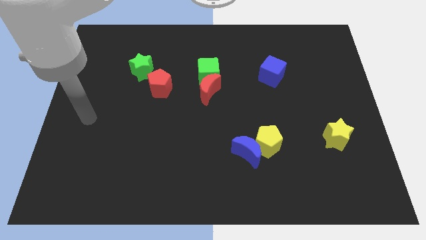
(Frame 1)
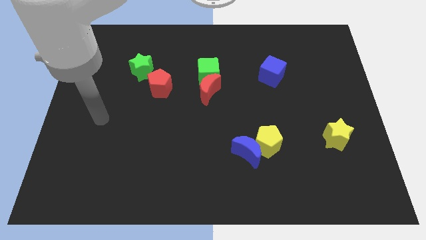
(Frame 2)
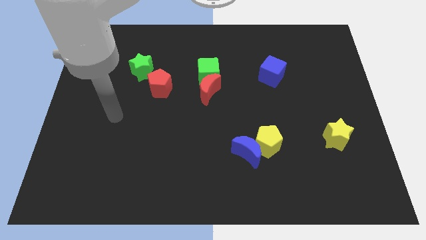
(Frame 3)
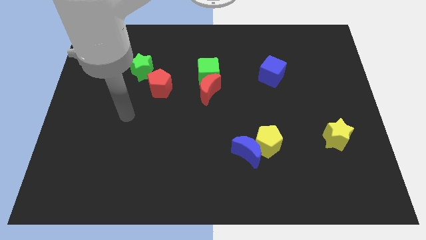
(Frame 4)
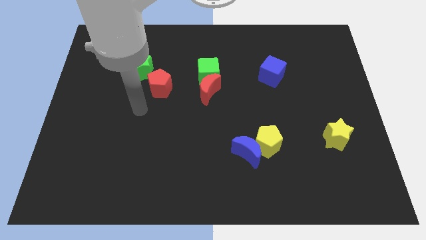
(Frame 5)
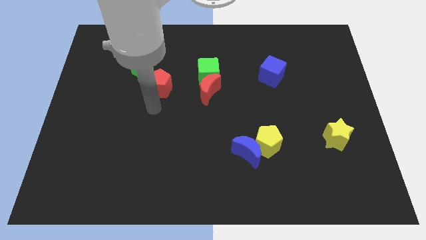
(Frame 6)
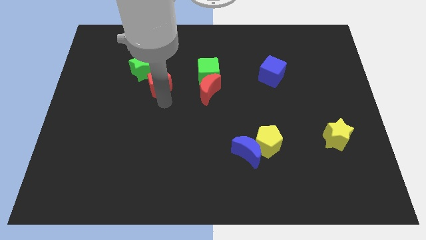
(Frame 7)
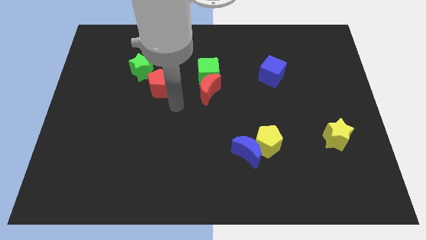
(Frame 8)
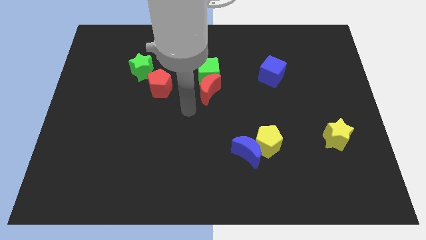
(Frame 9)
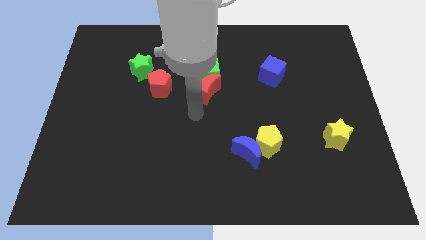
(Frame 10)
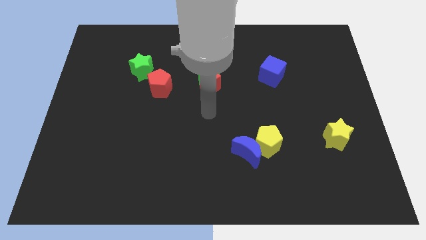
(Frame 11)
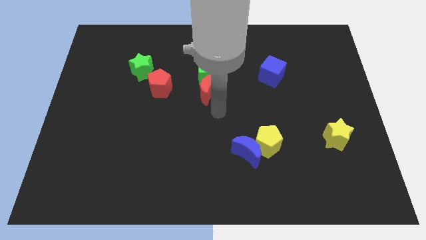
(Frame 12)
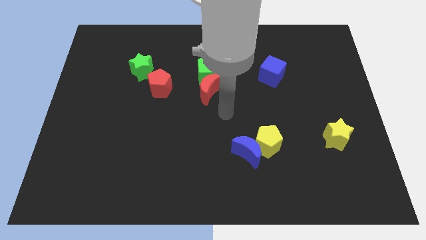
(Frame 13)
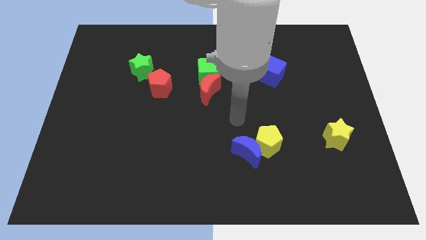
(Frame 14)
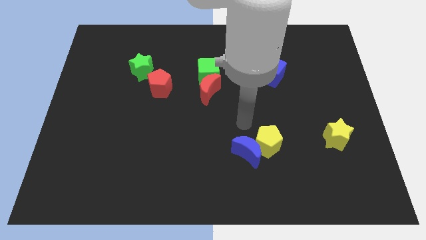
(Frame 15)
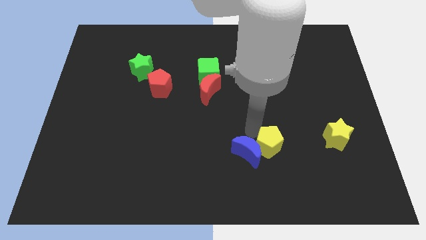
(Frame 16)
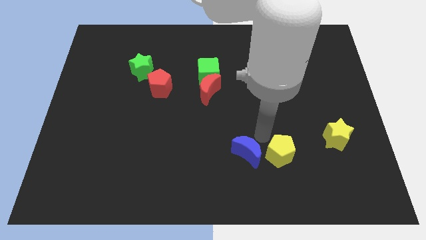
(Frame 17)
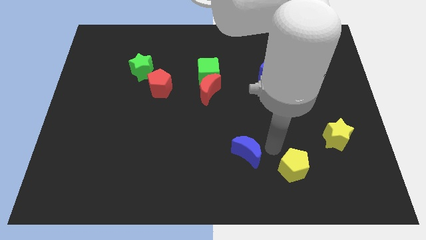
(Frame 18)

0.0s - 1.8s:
move the blue moon away from the yellow pentagon

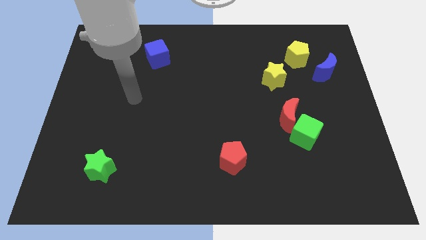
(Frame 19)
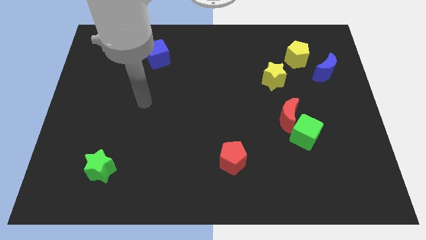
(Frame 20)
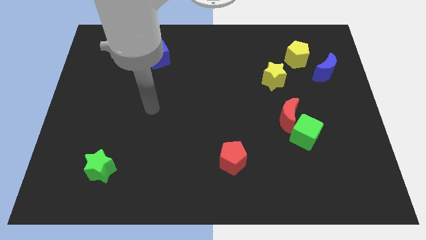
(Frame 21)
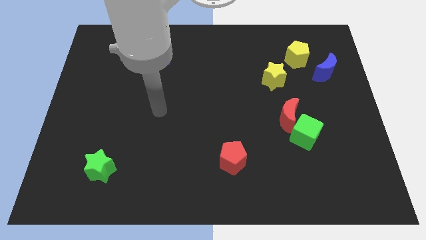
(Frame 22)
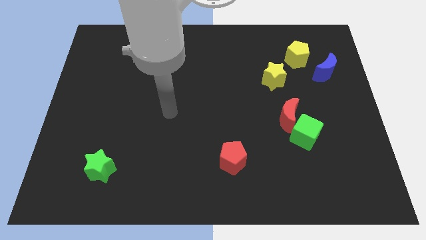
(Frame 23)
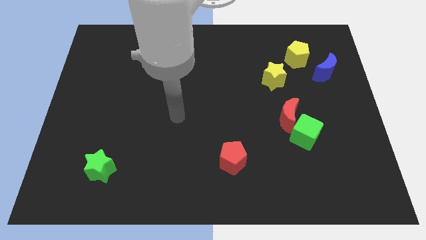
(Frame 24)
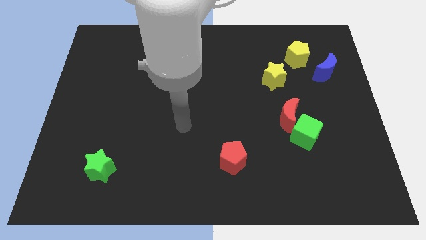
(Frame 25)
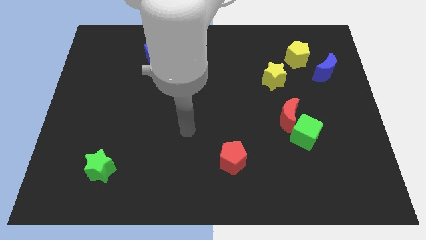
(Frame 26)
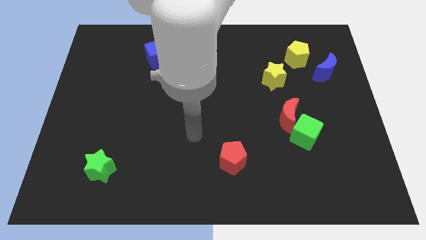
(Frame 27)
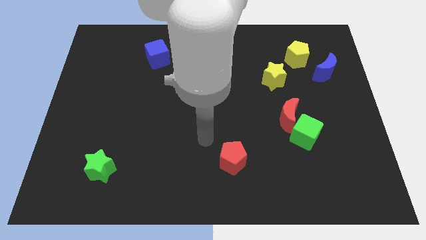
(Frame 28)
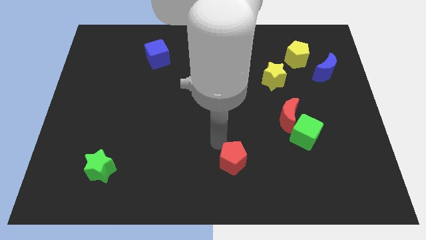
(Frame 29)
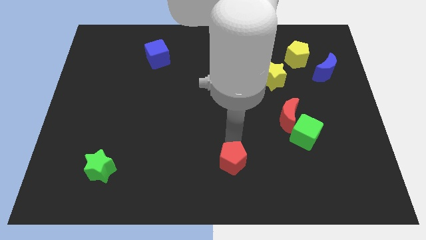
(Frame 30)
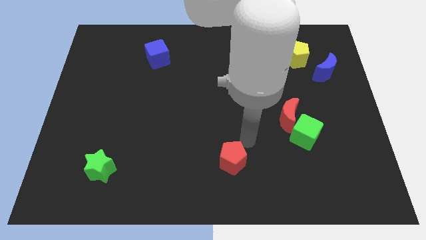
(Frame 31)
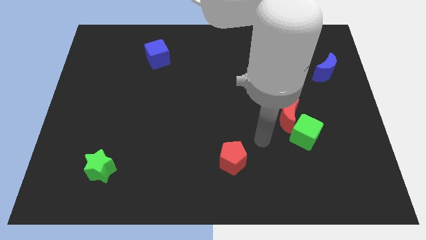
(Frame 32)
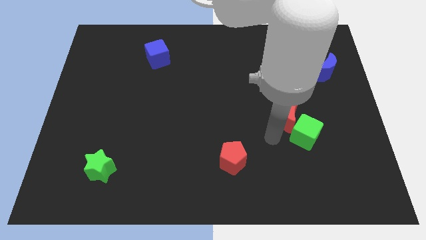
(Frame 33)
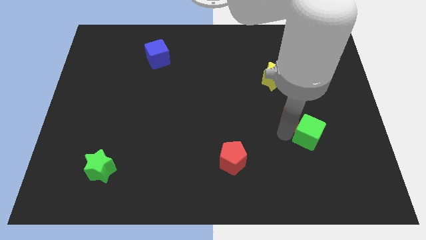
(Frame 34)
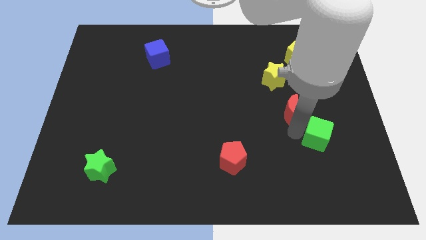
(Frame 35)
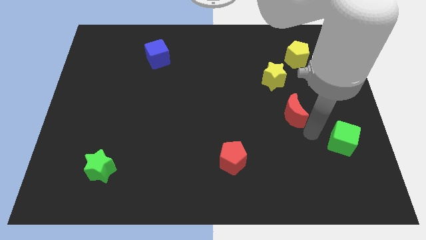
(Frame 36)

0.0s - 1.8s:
separate the red moon from the green cube

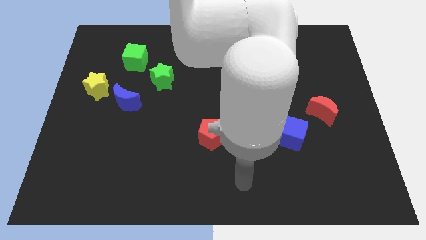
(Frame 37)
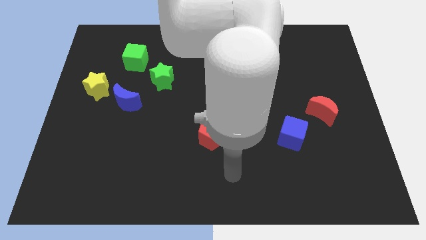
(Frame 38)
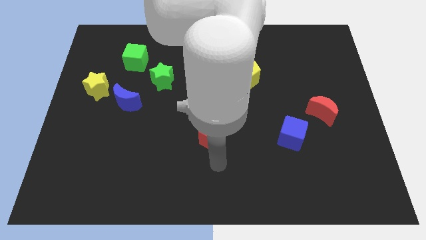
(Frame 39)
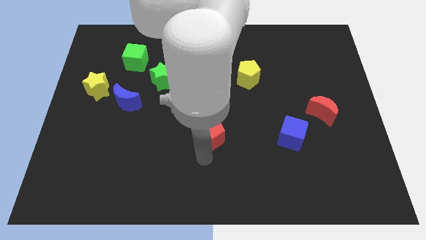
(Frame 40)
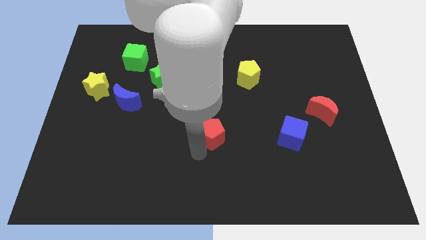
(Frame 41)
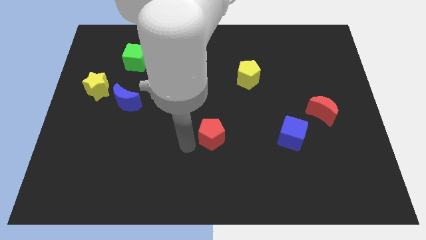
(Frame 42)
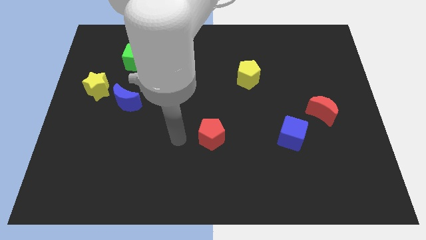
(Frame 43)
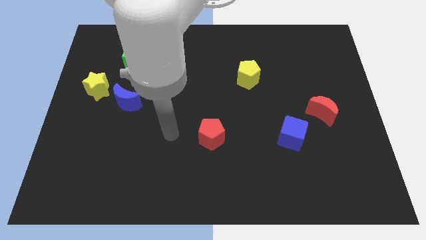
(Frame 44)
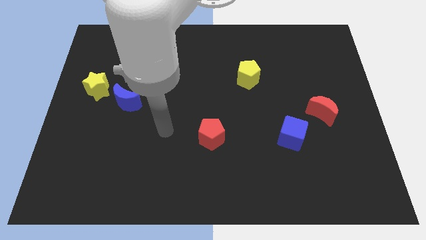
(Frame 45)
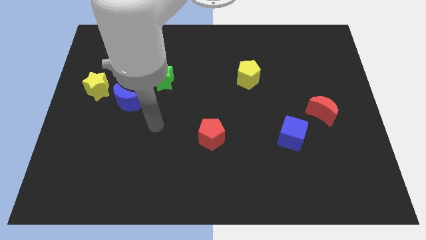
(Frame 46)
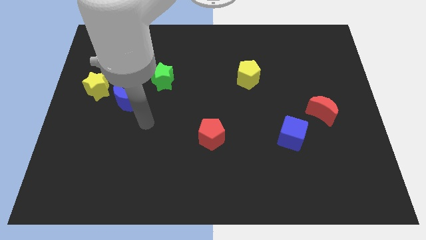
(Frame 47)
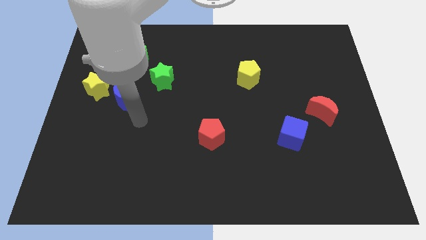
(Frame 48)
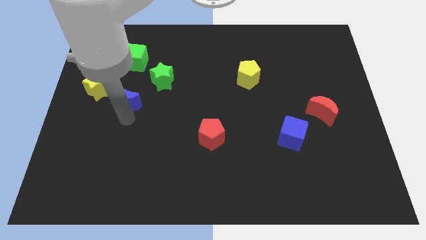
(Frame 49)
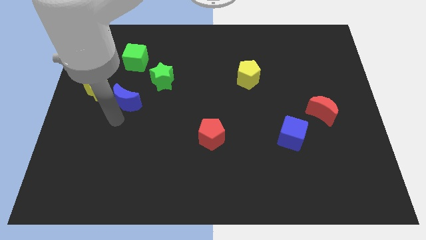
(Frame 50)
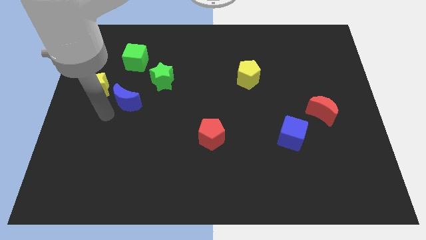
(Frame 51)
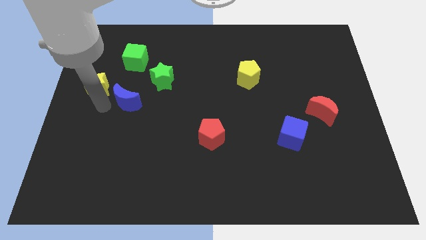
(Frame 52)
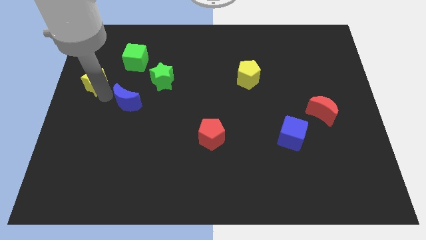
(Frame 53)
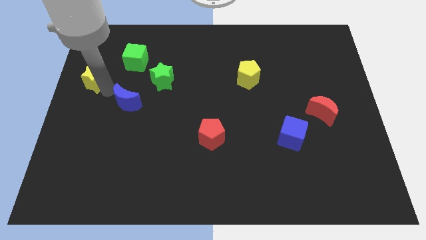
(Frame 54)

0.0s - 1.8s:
move the blue moon away from the yellow star

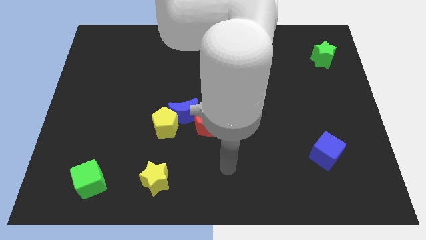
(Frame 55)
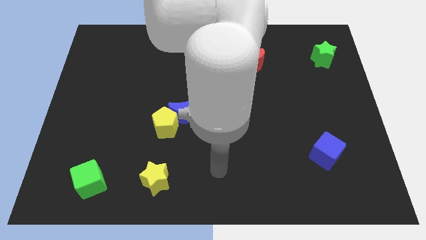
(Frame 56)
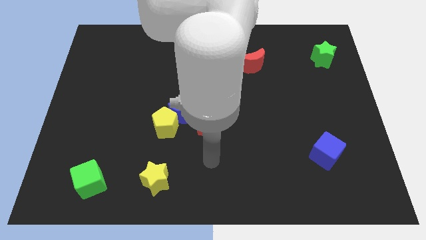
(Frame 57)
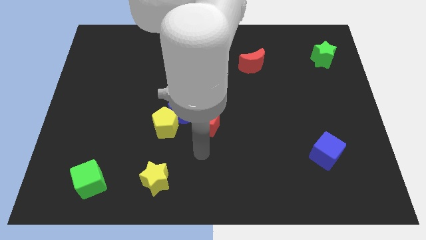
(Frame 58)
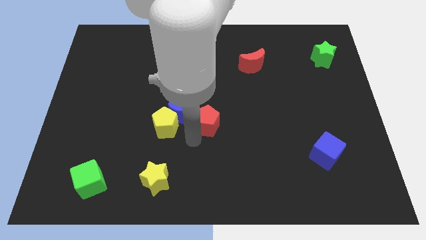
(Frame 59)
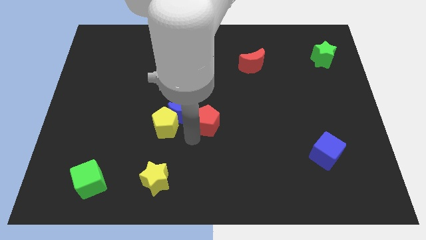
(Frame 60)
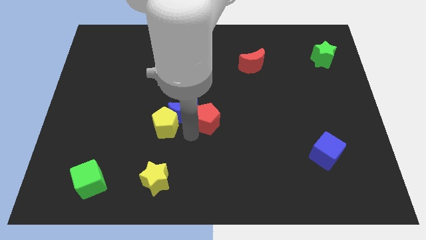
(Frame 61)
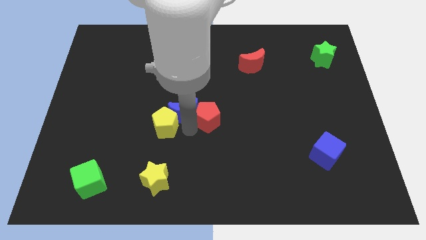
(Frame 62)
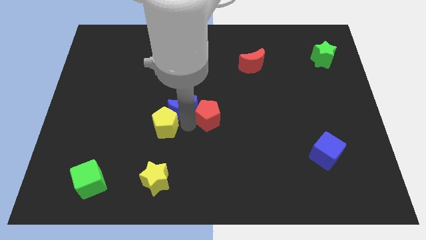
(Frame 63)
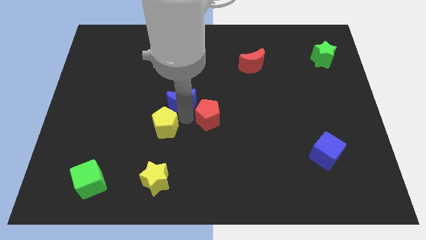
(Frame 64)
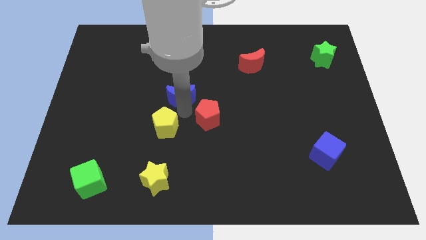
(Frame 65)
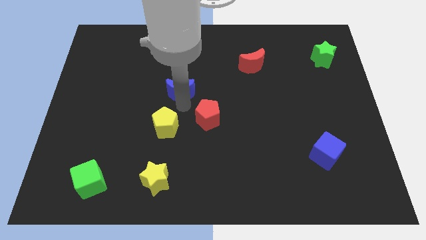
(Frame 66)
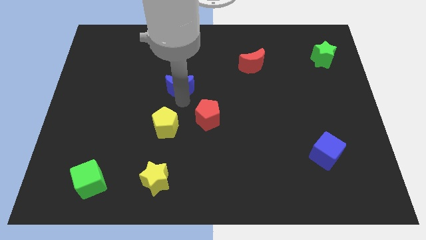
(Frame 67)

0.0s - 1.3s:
pull the blue moon apart from the yellow pentagon and red pentagon

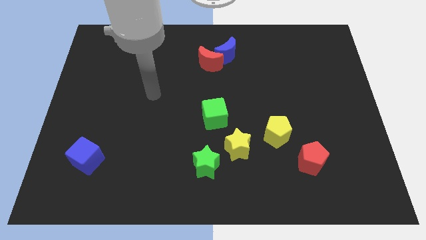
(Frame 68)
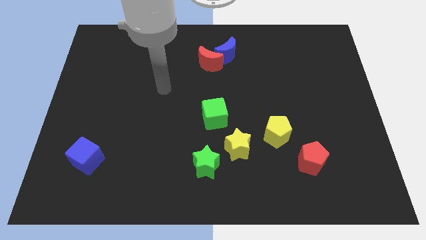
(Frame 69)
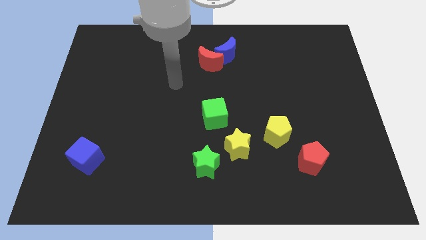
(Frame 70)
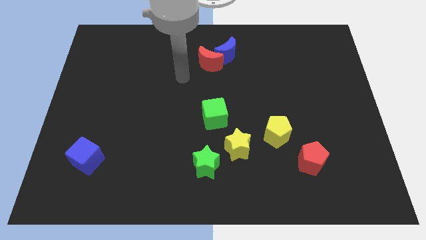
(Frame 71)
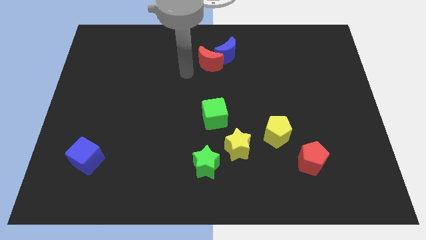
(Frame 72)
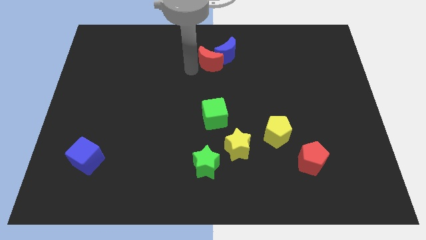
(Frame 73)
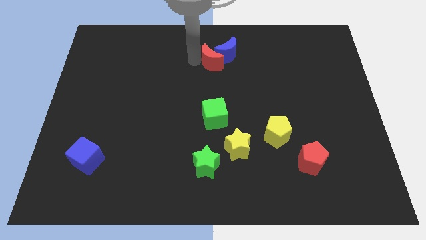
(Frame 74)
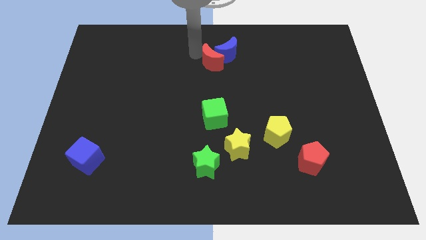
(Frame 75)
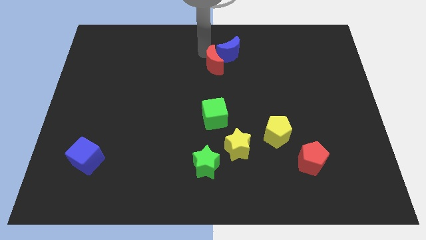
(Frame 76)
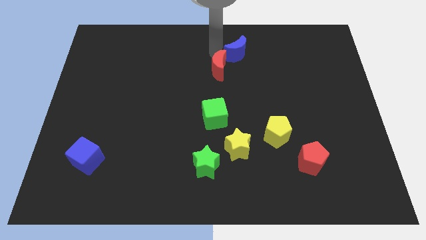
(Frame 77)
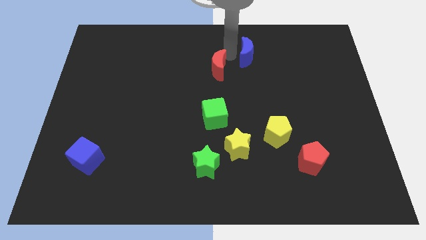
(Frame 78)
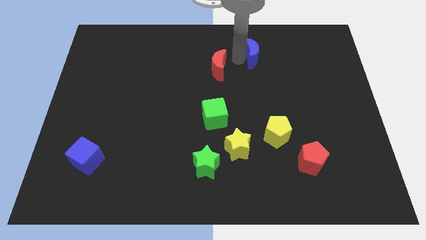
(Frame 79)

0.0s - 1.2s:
pull the red moon apart from the blue moon

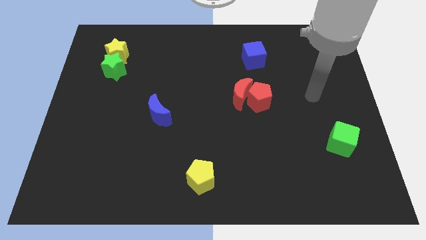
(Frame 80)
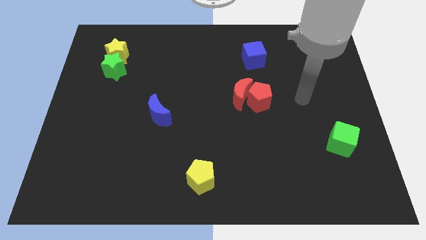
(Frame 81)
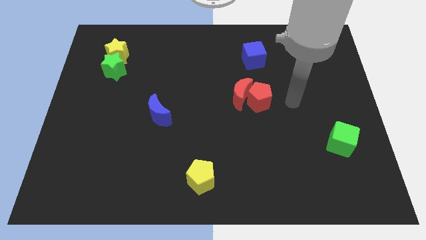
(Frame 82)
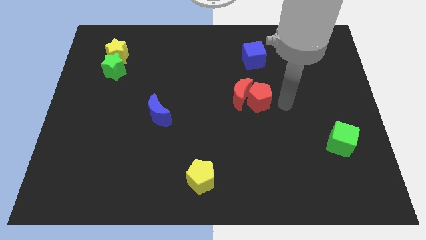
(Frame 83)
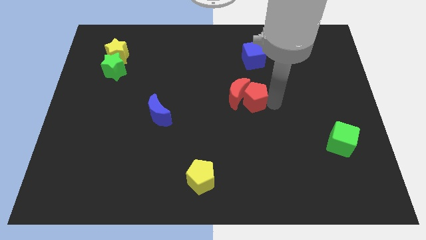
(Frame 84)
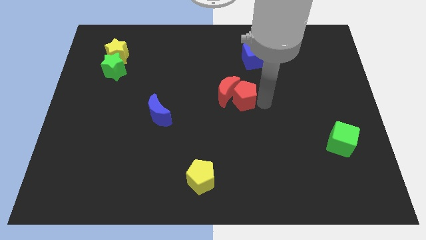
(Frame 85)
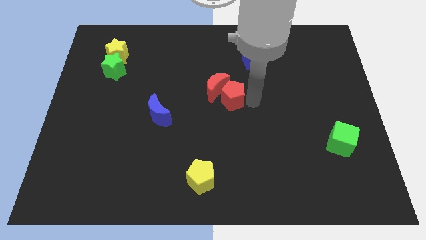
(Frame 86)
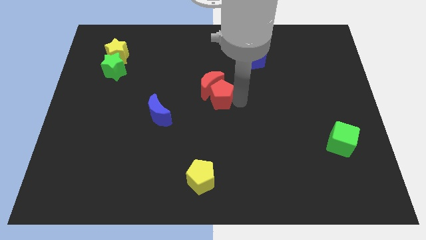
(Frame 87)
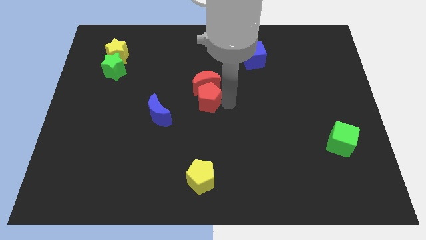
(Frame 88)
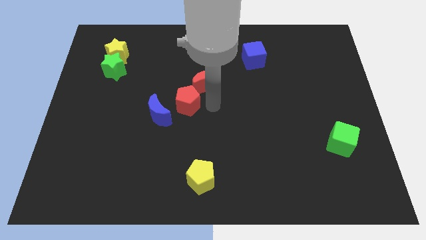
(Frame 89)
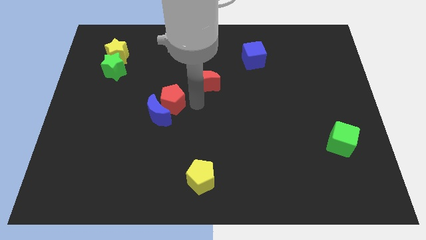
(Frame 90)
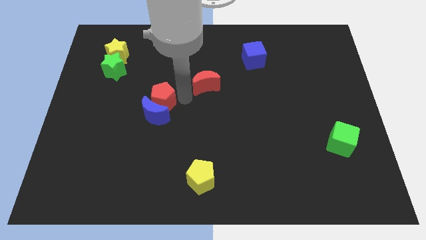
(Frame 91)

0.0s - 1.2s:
move the red moon away from the red pentagon
